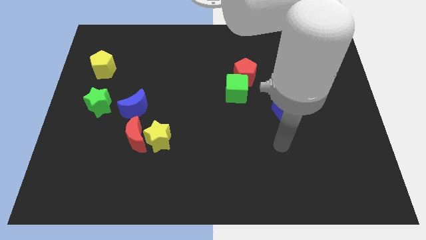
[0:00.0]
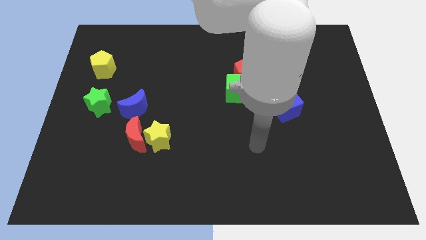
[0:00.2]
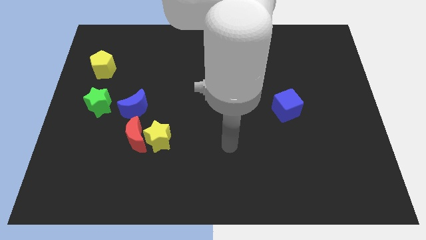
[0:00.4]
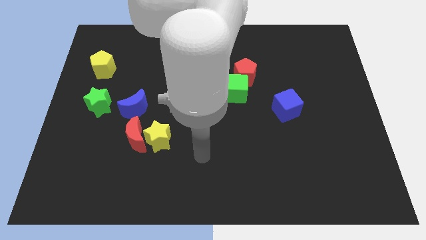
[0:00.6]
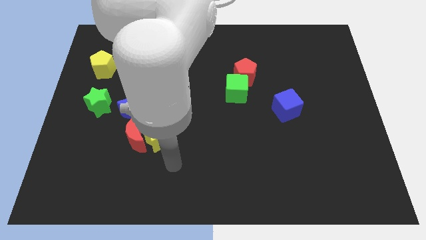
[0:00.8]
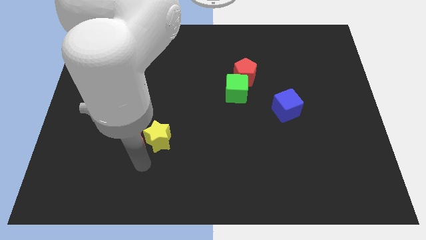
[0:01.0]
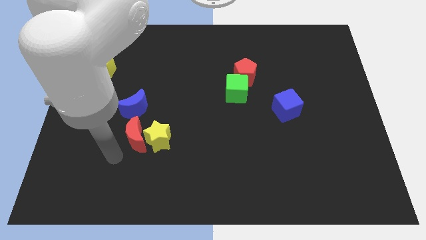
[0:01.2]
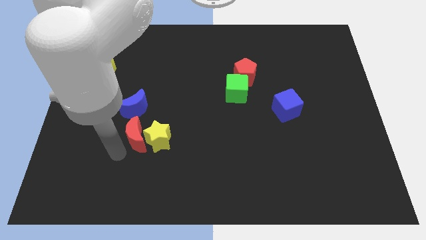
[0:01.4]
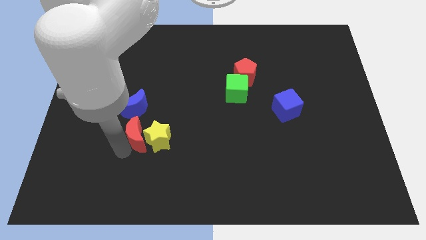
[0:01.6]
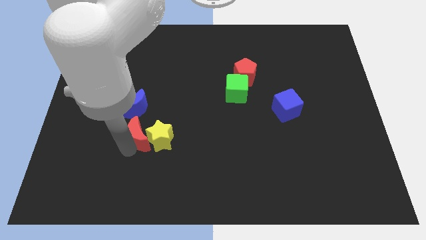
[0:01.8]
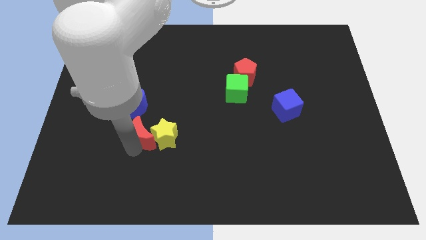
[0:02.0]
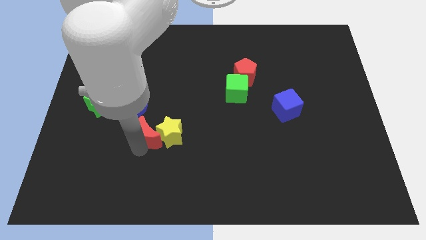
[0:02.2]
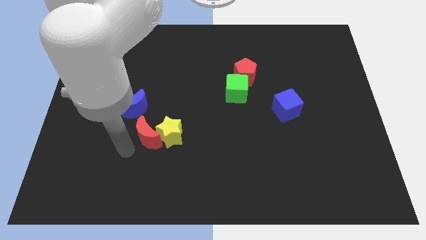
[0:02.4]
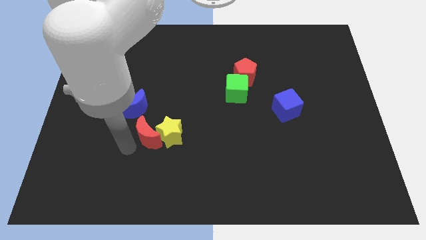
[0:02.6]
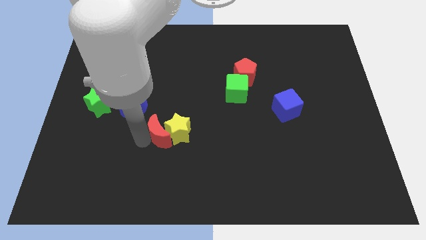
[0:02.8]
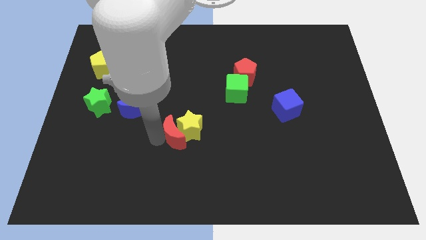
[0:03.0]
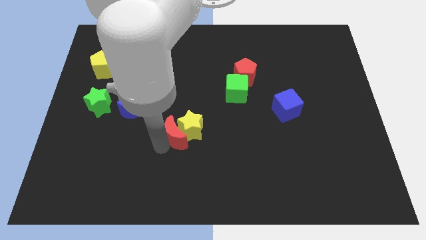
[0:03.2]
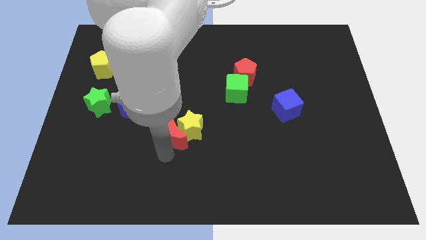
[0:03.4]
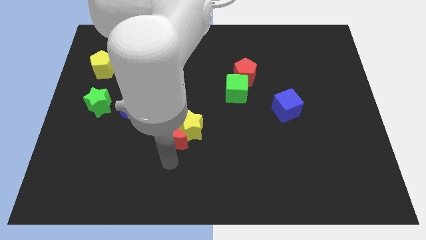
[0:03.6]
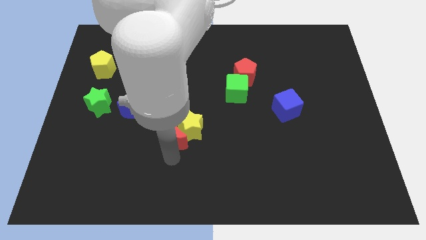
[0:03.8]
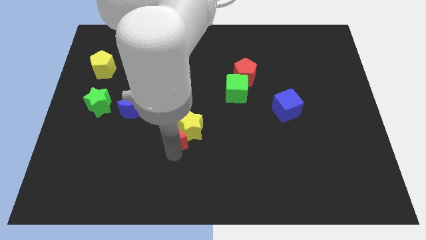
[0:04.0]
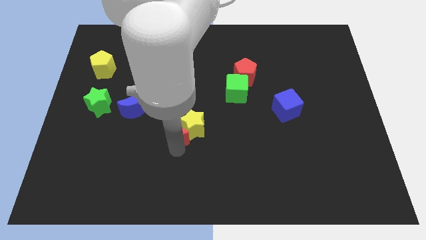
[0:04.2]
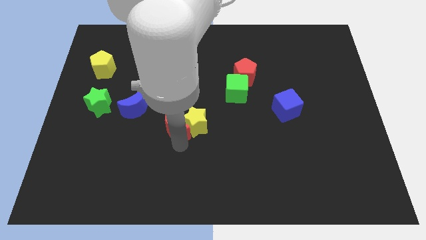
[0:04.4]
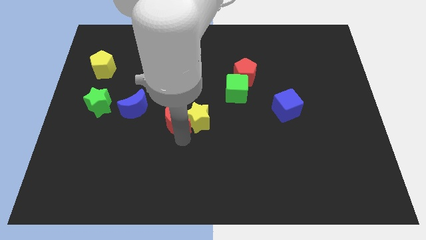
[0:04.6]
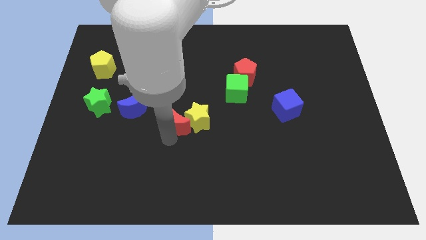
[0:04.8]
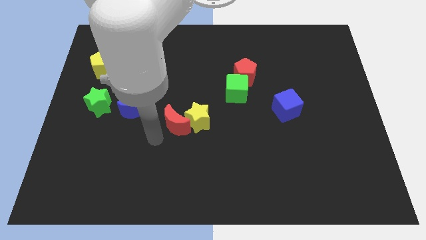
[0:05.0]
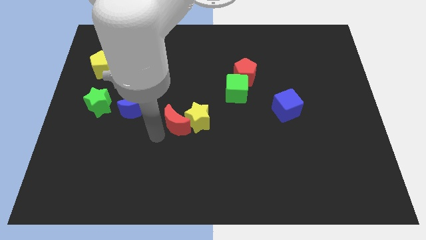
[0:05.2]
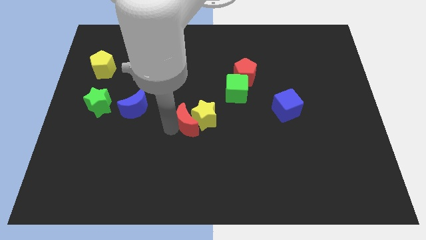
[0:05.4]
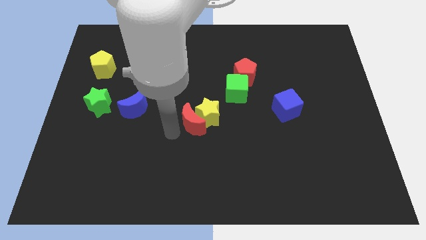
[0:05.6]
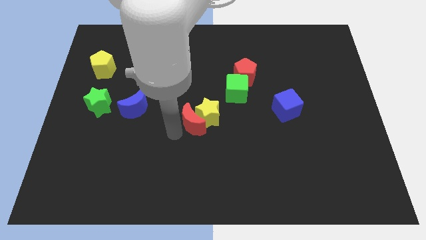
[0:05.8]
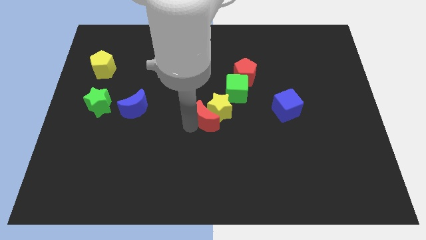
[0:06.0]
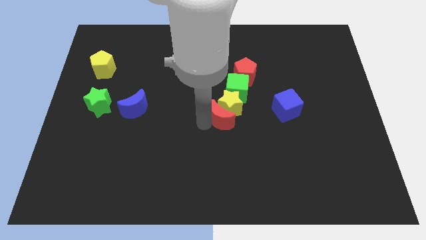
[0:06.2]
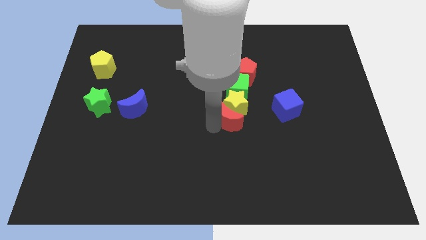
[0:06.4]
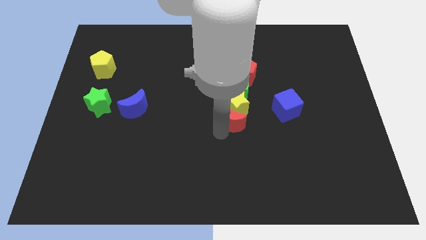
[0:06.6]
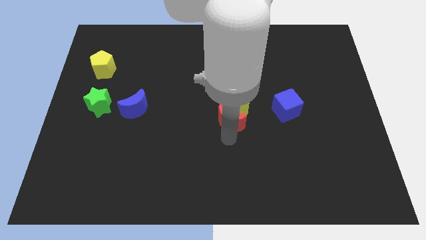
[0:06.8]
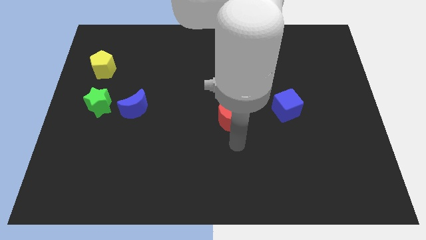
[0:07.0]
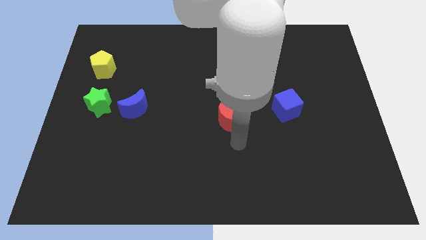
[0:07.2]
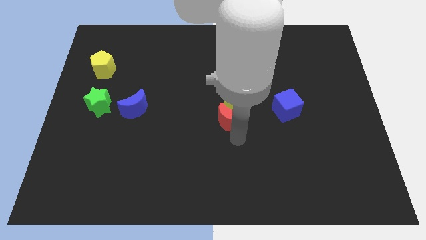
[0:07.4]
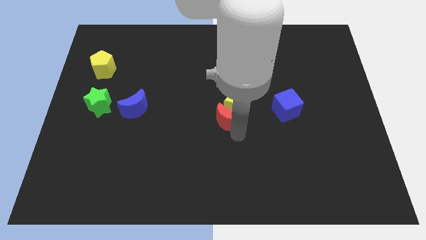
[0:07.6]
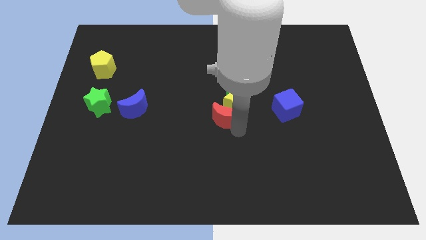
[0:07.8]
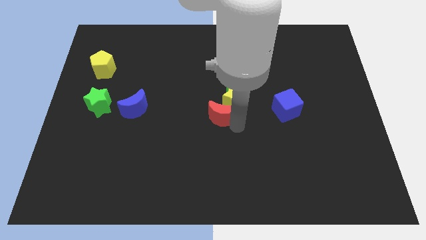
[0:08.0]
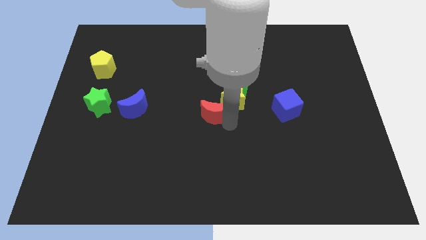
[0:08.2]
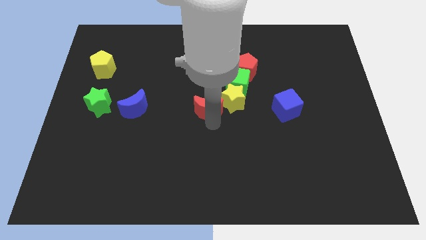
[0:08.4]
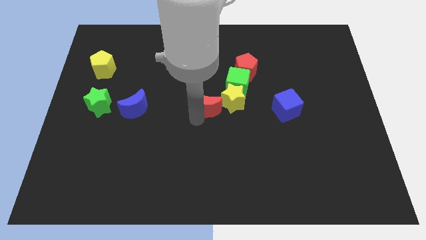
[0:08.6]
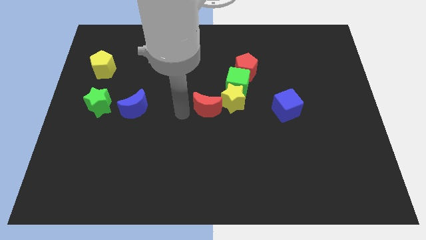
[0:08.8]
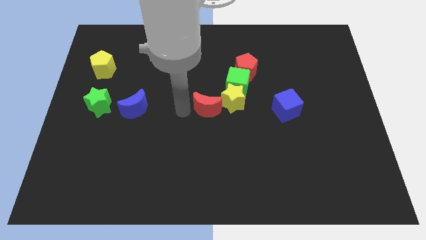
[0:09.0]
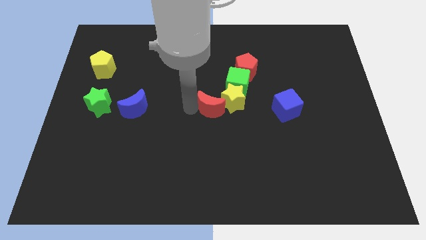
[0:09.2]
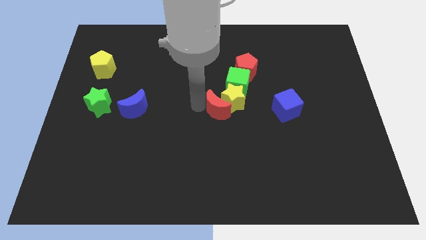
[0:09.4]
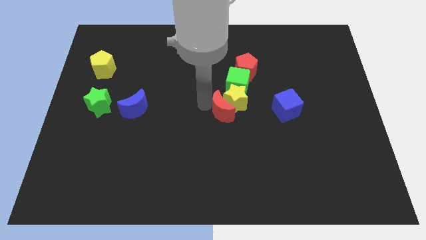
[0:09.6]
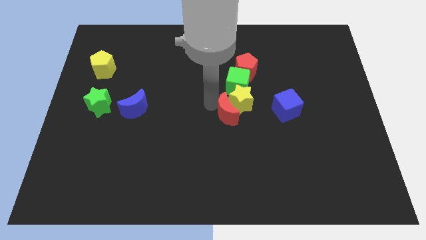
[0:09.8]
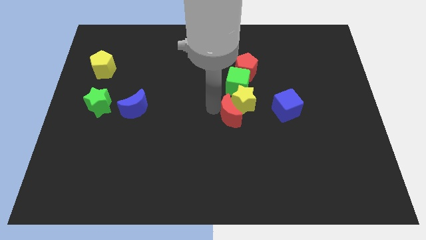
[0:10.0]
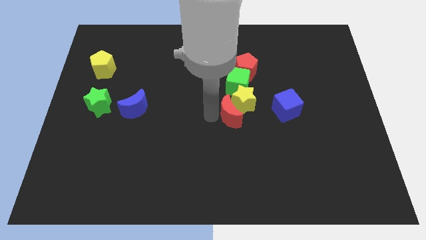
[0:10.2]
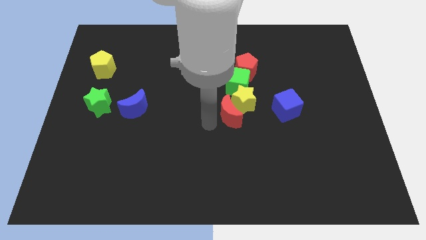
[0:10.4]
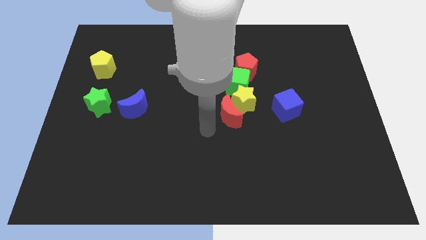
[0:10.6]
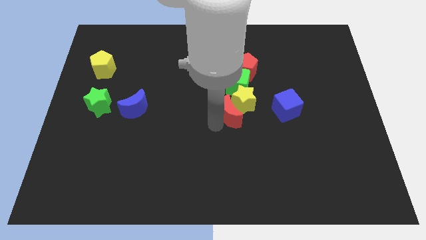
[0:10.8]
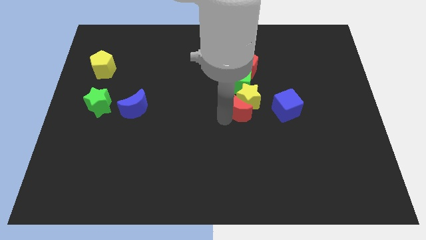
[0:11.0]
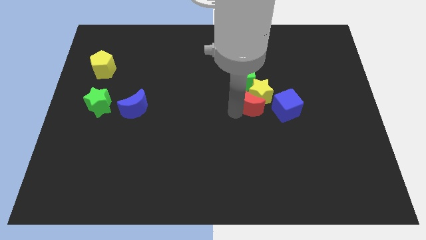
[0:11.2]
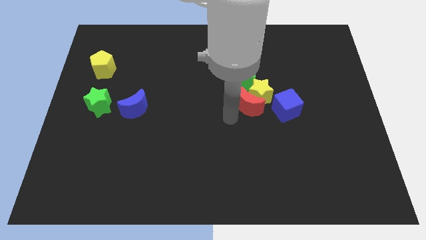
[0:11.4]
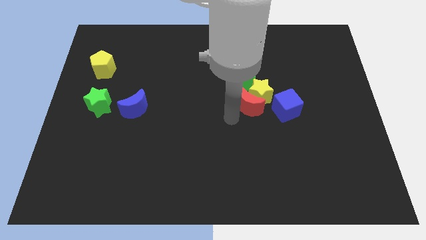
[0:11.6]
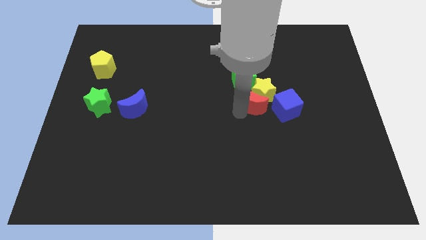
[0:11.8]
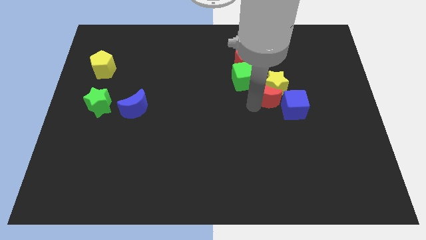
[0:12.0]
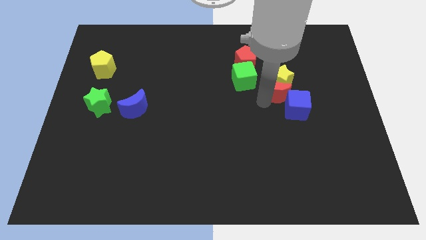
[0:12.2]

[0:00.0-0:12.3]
slide the red moon to the top of the blue cube

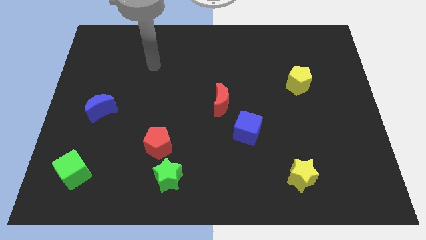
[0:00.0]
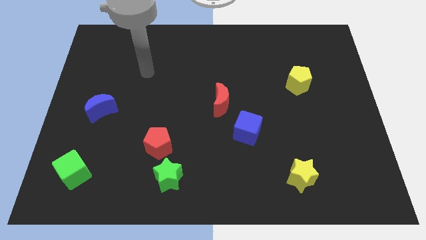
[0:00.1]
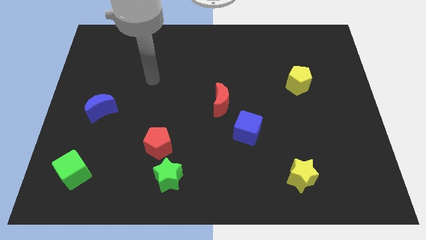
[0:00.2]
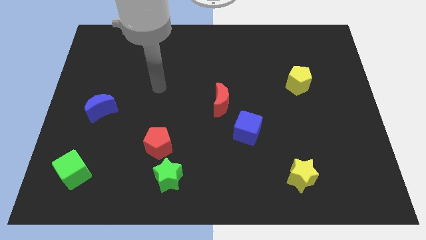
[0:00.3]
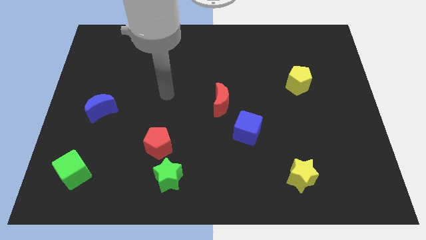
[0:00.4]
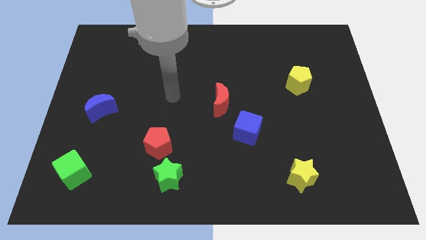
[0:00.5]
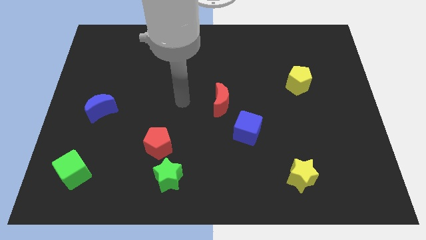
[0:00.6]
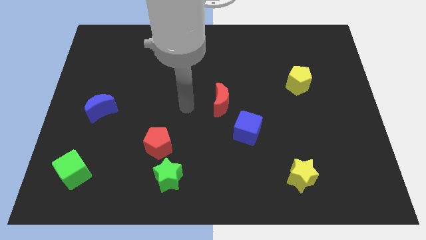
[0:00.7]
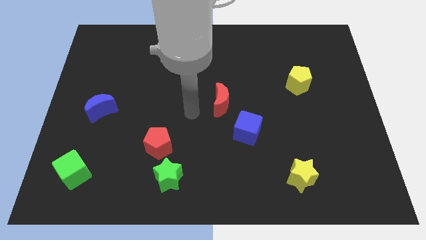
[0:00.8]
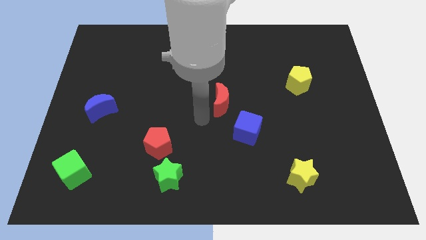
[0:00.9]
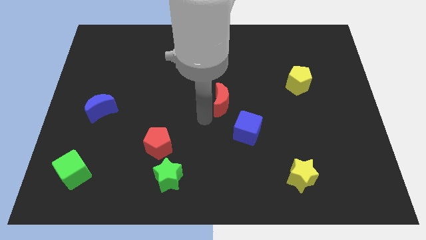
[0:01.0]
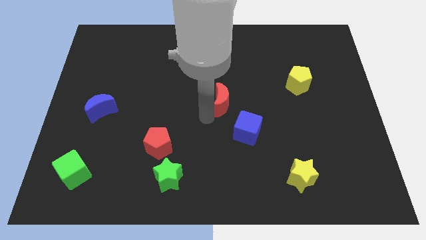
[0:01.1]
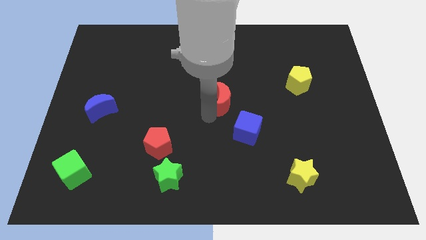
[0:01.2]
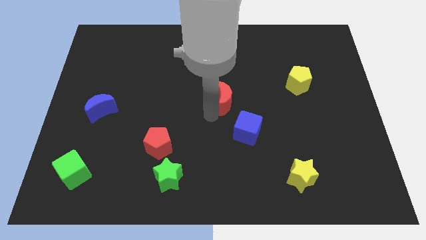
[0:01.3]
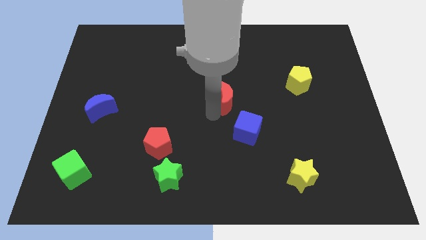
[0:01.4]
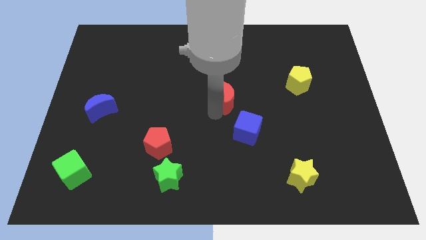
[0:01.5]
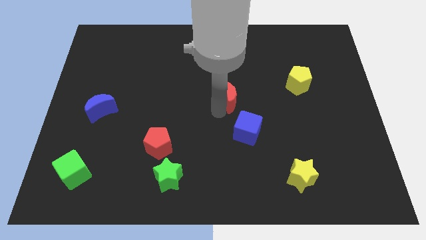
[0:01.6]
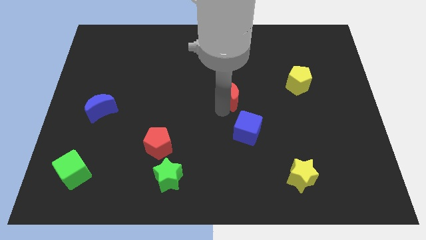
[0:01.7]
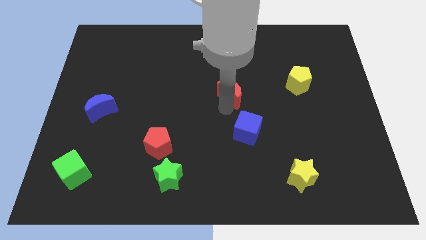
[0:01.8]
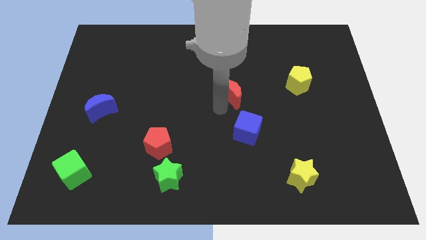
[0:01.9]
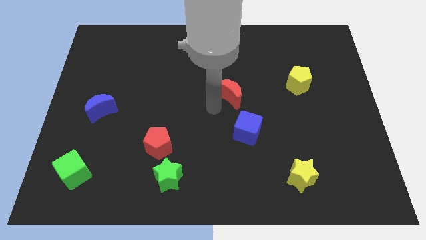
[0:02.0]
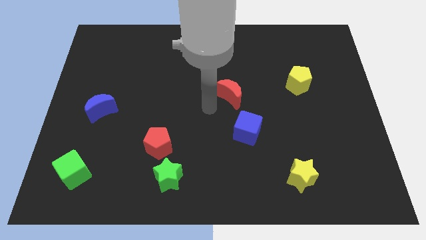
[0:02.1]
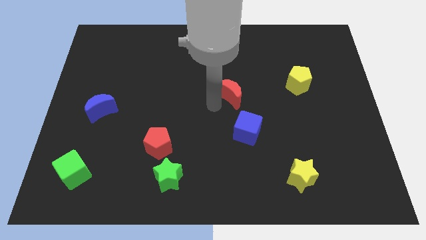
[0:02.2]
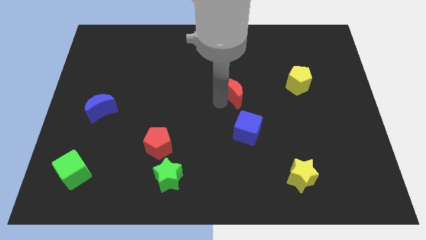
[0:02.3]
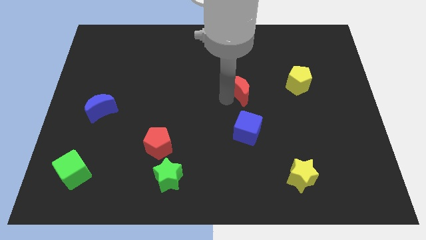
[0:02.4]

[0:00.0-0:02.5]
slide the red moon to the left of the yellow pentagon
